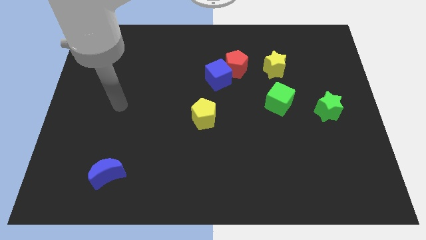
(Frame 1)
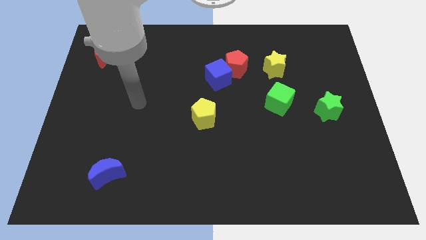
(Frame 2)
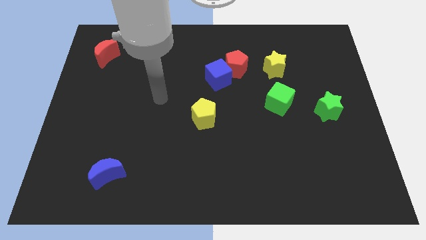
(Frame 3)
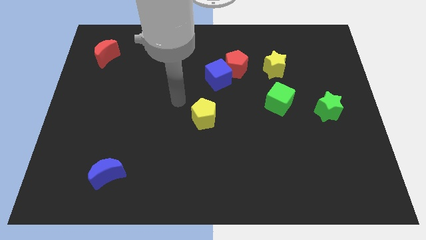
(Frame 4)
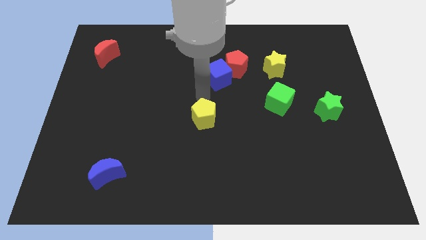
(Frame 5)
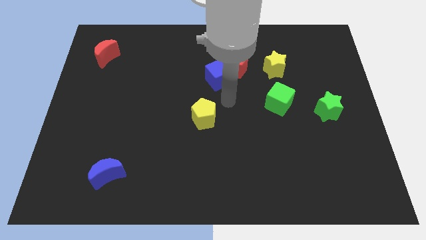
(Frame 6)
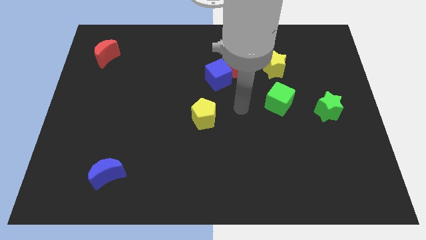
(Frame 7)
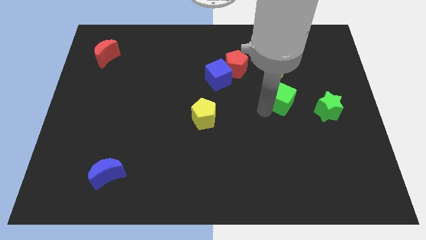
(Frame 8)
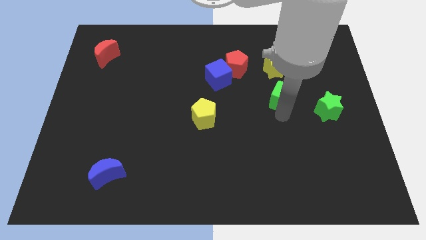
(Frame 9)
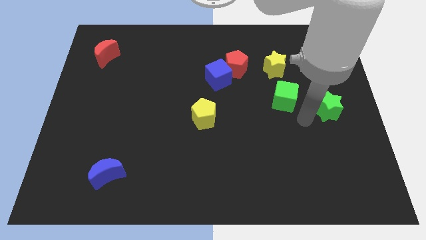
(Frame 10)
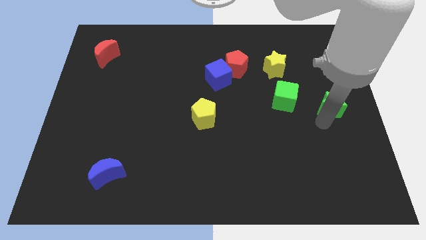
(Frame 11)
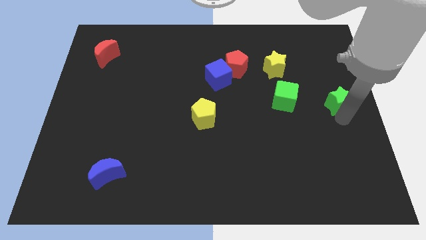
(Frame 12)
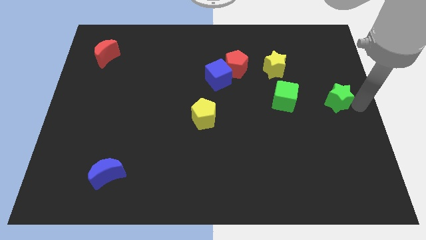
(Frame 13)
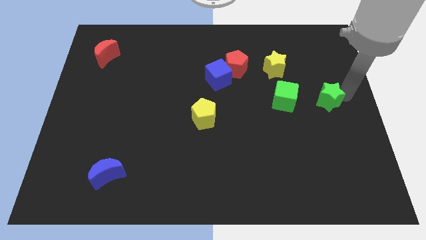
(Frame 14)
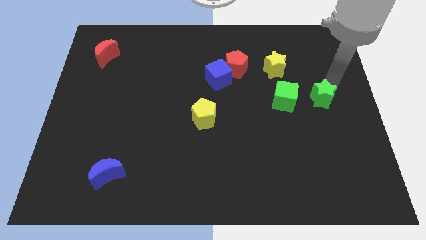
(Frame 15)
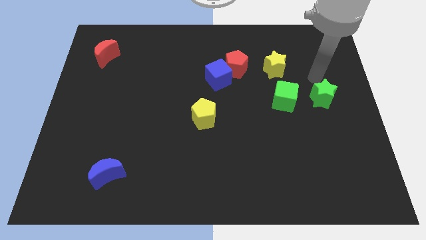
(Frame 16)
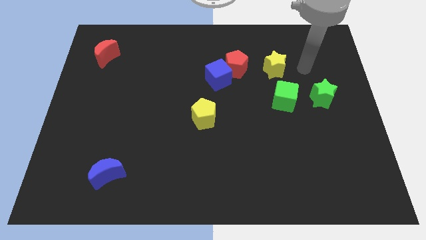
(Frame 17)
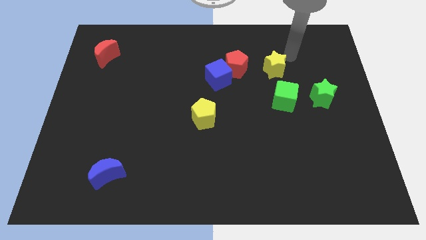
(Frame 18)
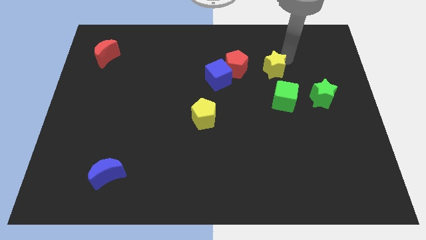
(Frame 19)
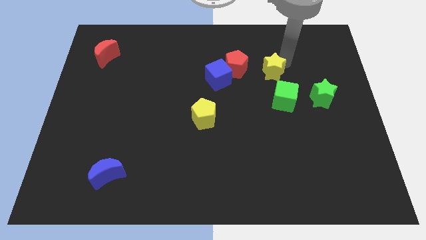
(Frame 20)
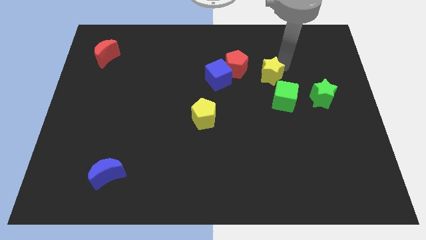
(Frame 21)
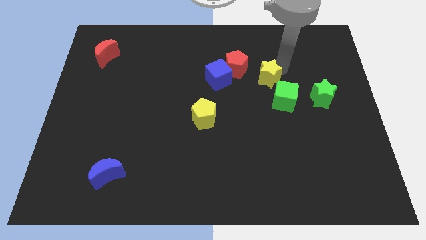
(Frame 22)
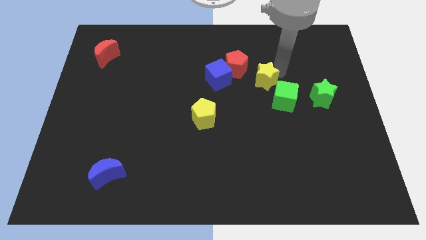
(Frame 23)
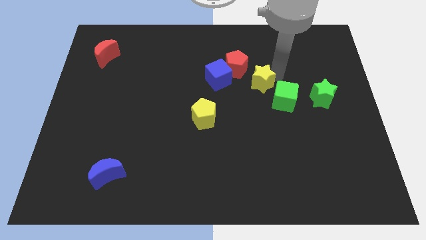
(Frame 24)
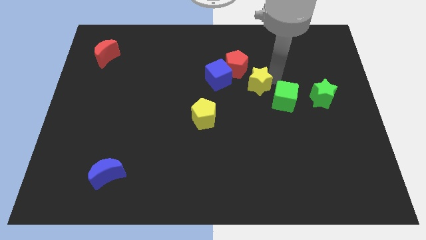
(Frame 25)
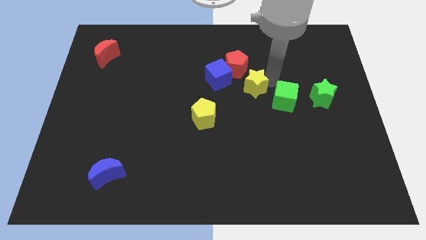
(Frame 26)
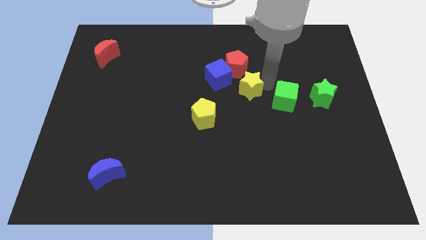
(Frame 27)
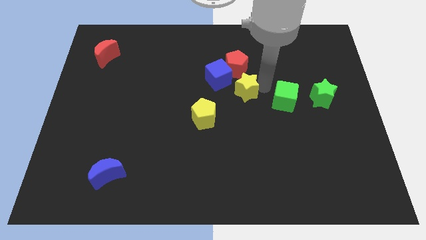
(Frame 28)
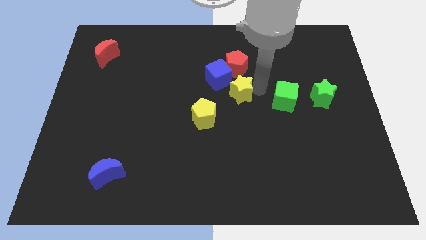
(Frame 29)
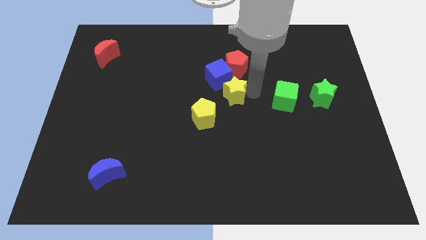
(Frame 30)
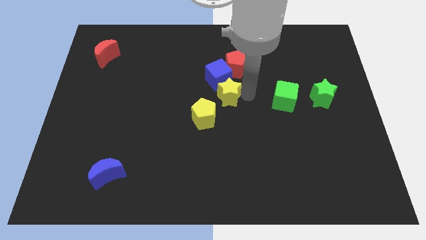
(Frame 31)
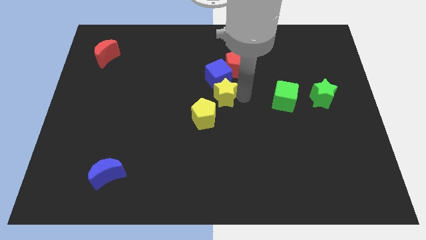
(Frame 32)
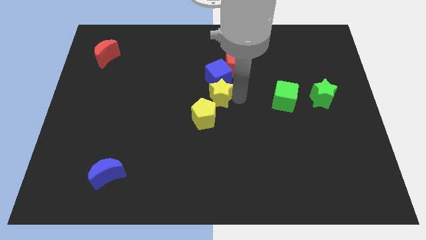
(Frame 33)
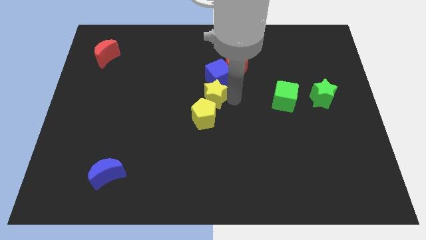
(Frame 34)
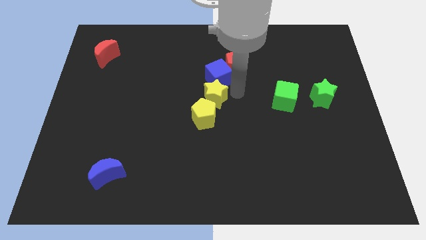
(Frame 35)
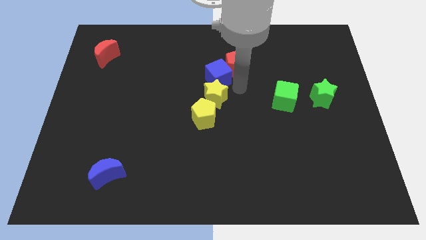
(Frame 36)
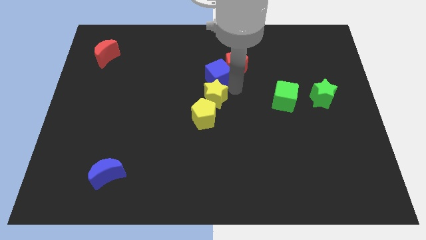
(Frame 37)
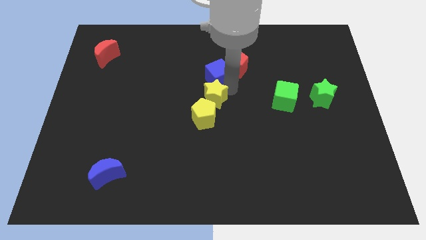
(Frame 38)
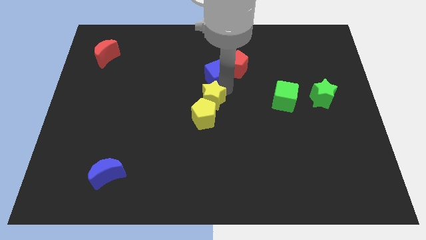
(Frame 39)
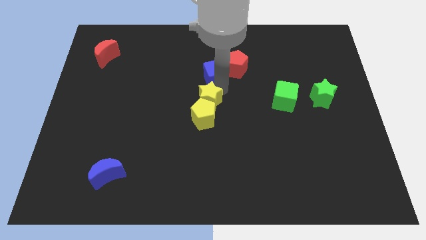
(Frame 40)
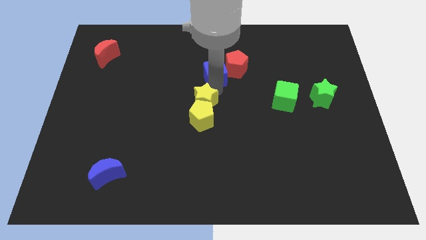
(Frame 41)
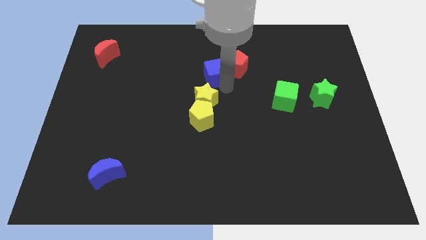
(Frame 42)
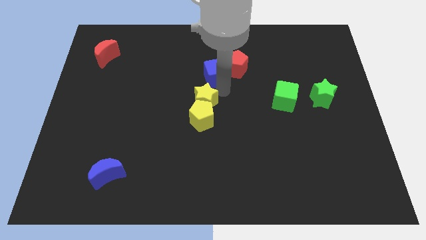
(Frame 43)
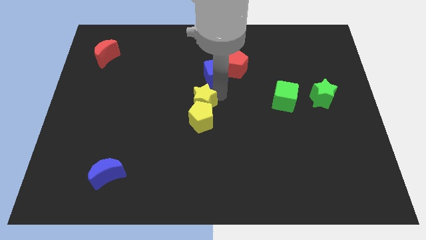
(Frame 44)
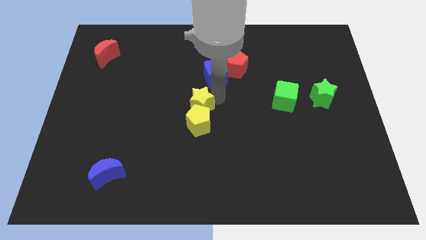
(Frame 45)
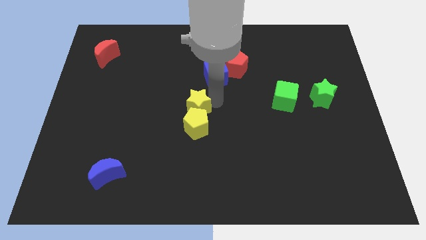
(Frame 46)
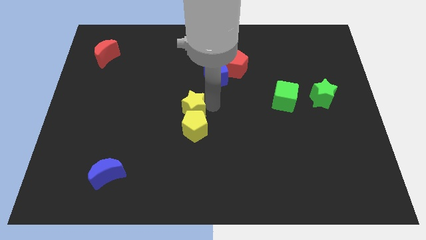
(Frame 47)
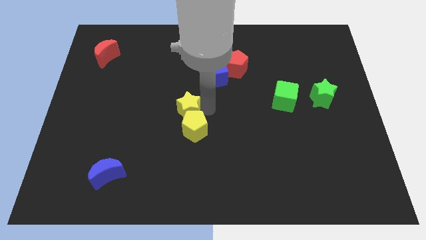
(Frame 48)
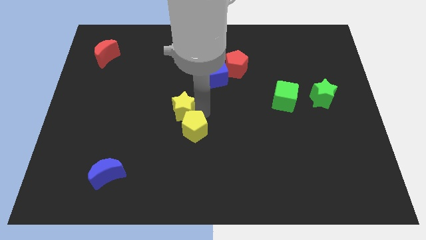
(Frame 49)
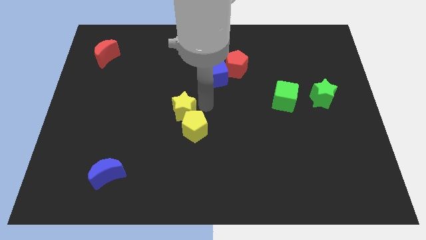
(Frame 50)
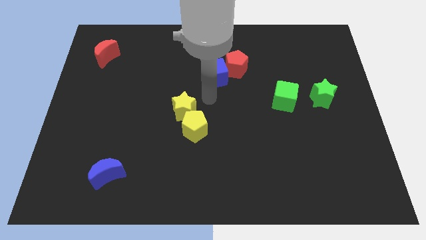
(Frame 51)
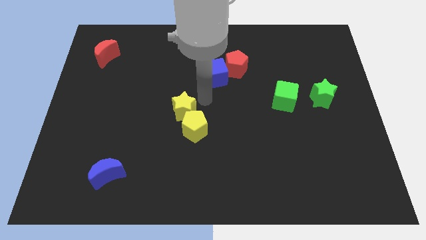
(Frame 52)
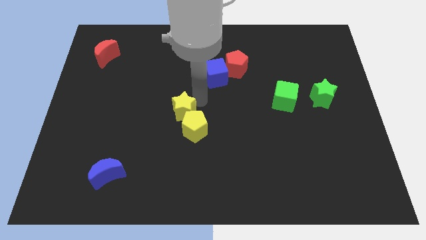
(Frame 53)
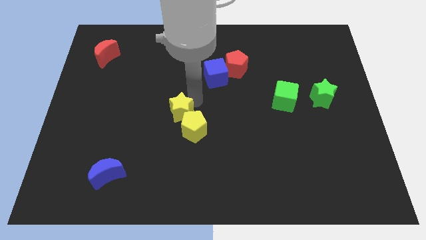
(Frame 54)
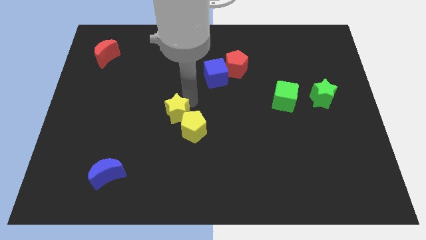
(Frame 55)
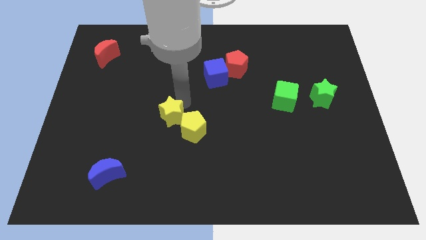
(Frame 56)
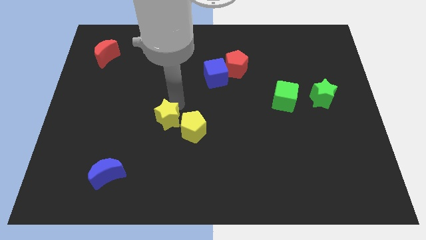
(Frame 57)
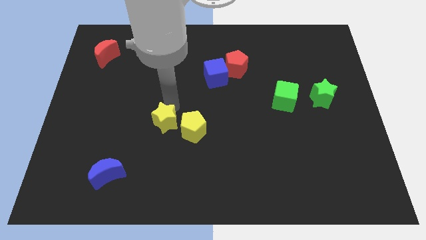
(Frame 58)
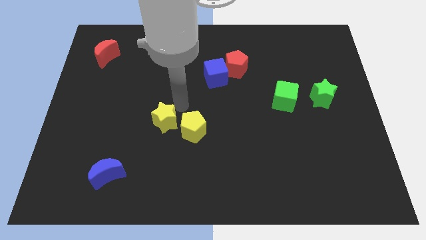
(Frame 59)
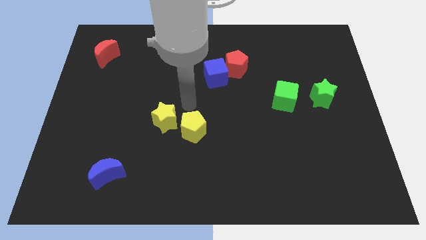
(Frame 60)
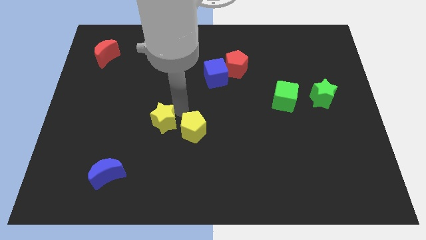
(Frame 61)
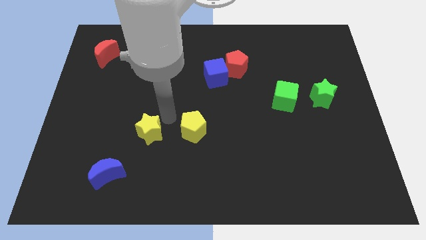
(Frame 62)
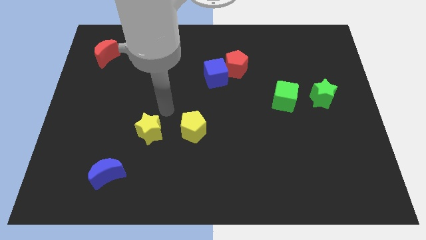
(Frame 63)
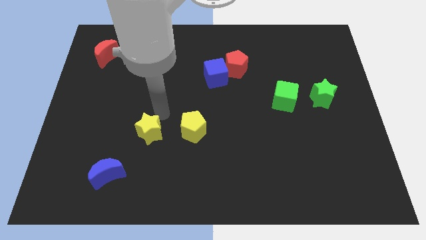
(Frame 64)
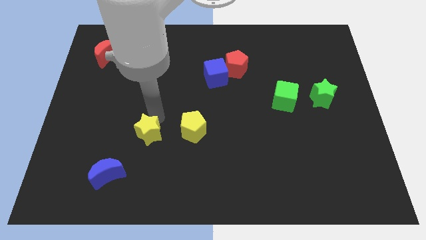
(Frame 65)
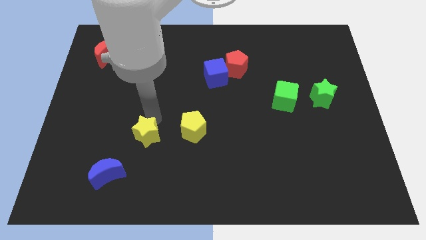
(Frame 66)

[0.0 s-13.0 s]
put the yellow star to the top right of the blue moon

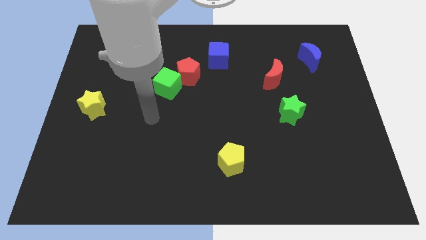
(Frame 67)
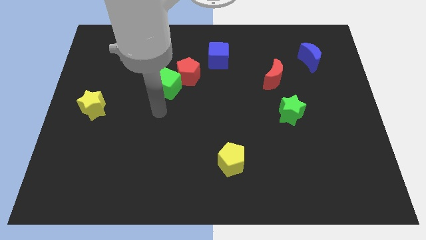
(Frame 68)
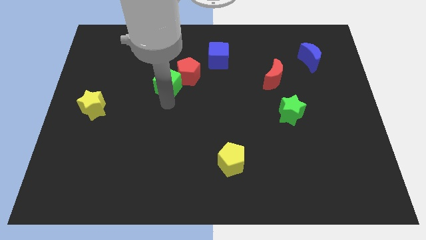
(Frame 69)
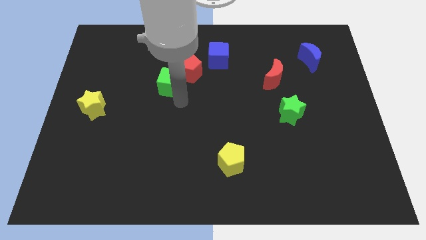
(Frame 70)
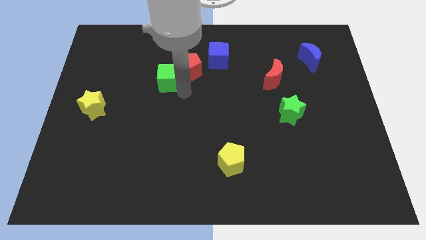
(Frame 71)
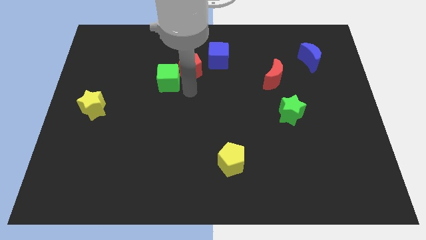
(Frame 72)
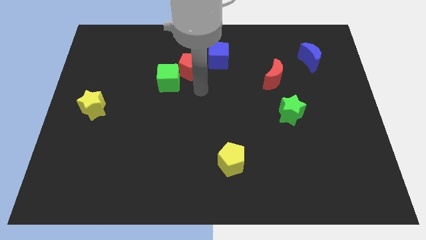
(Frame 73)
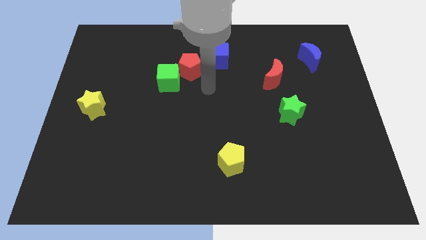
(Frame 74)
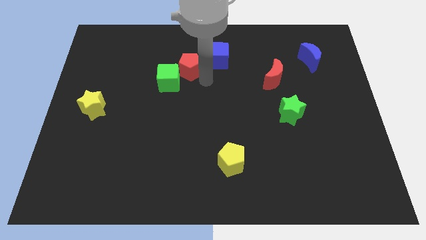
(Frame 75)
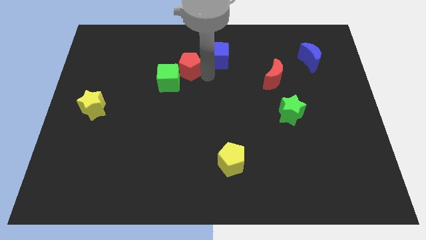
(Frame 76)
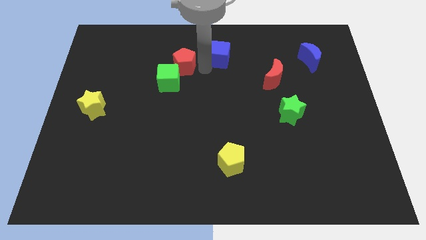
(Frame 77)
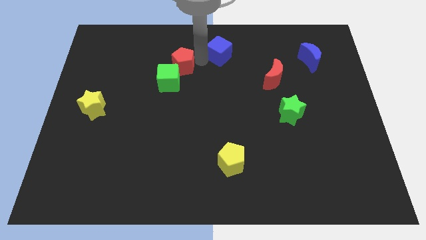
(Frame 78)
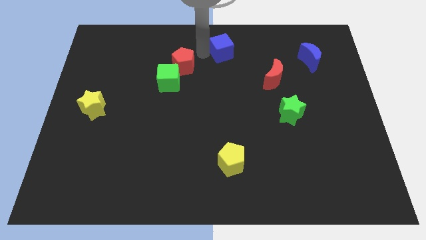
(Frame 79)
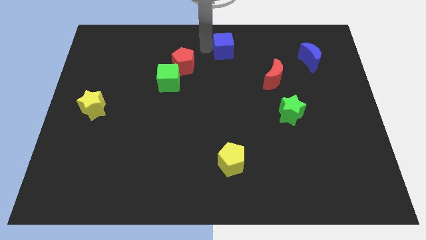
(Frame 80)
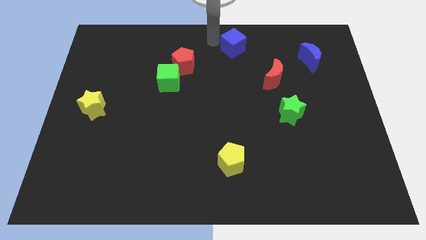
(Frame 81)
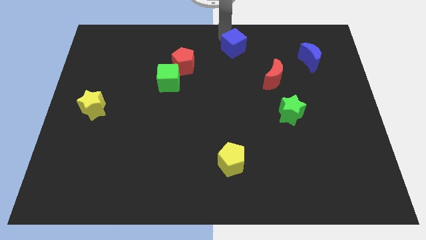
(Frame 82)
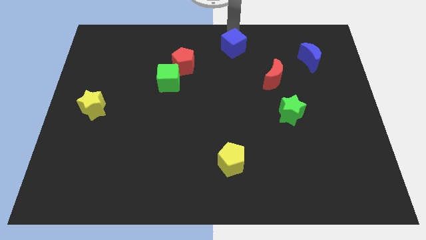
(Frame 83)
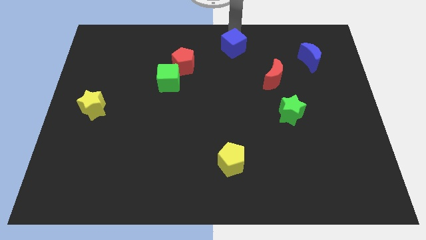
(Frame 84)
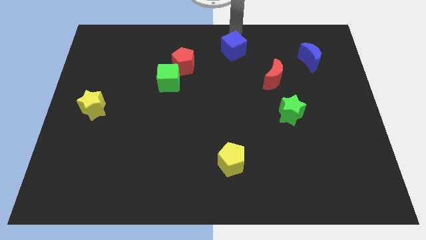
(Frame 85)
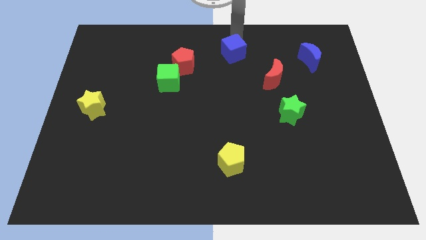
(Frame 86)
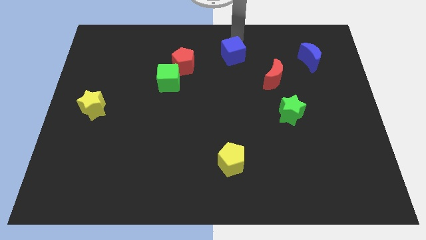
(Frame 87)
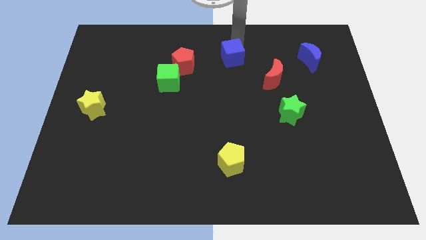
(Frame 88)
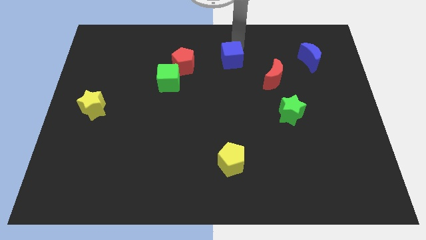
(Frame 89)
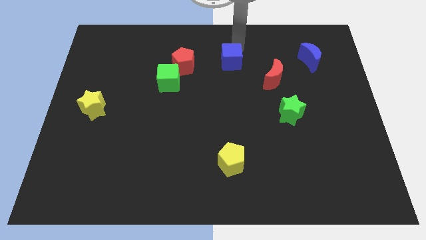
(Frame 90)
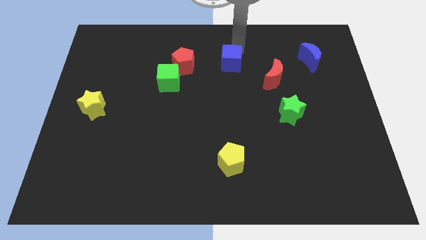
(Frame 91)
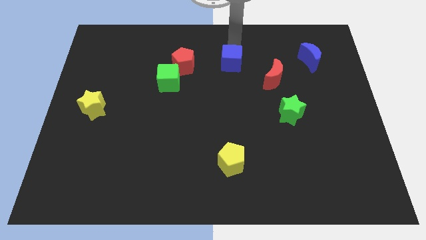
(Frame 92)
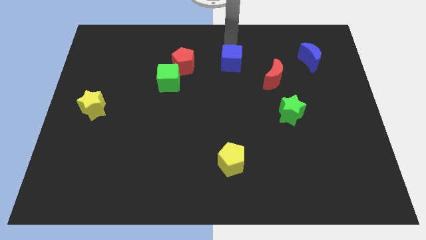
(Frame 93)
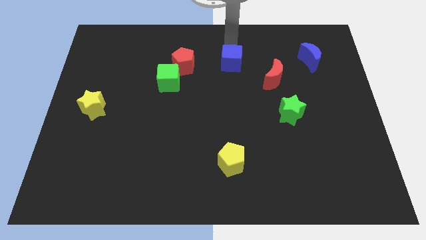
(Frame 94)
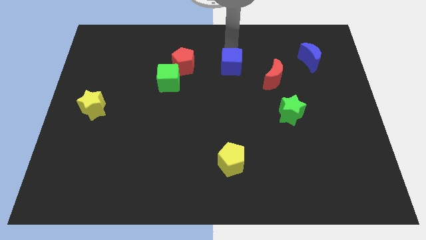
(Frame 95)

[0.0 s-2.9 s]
move the blue cube to the left side of the red moon
